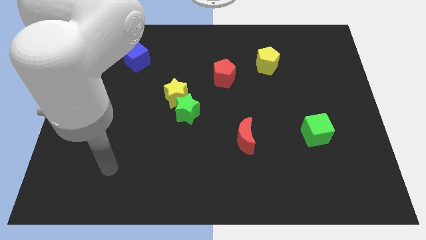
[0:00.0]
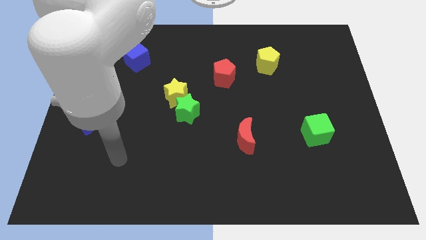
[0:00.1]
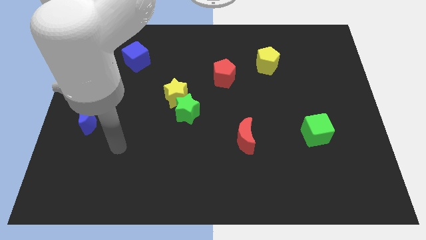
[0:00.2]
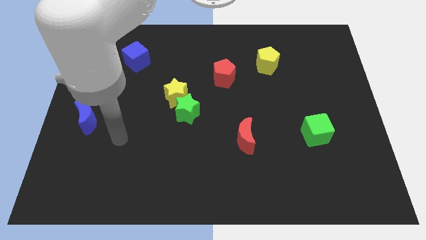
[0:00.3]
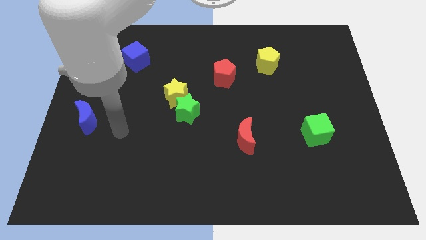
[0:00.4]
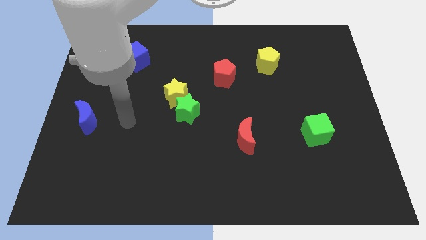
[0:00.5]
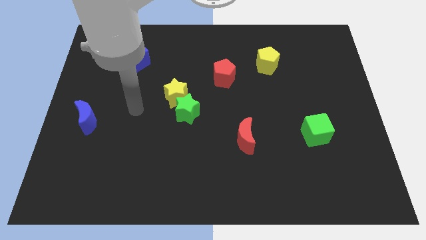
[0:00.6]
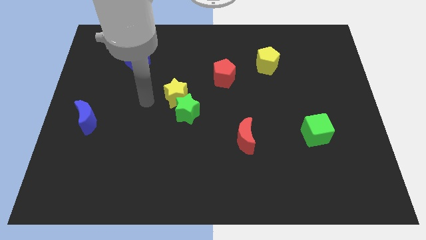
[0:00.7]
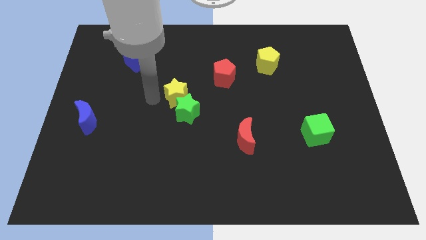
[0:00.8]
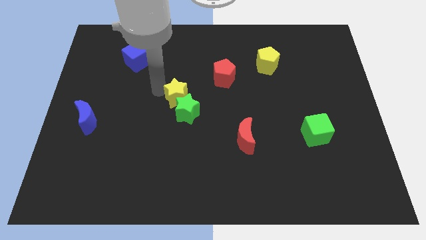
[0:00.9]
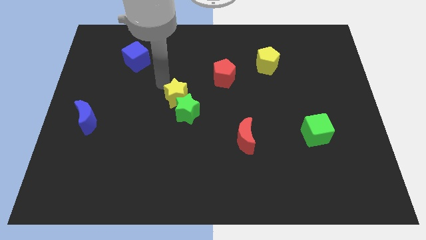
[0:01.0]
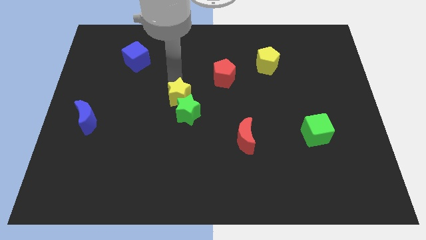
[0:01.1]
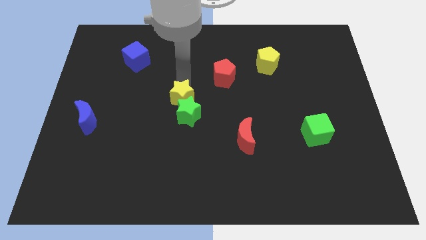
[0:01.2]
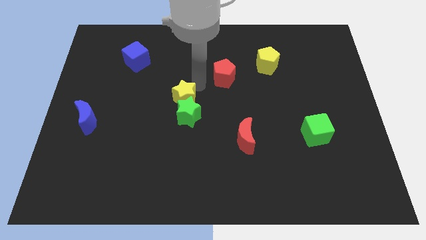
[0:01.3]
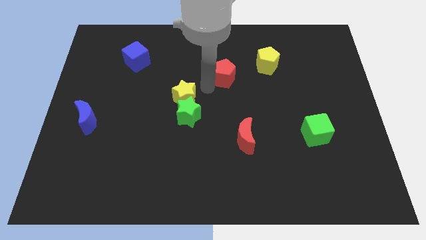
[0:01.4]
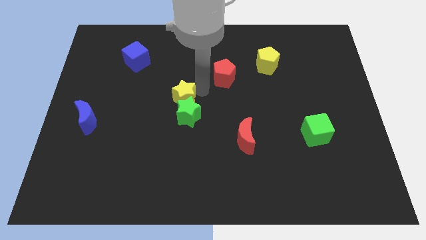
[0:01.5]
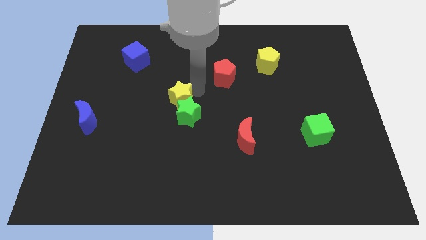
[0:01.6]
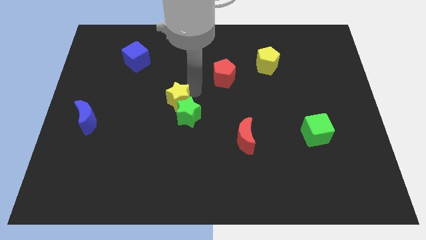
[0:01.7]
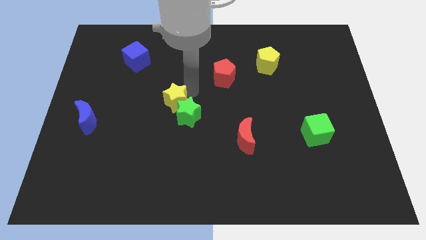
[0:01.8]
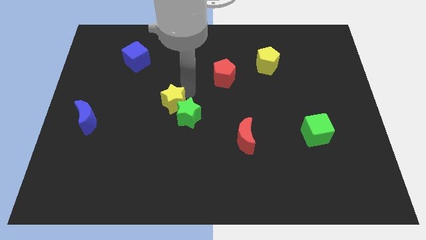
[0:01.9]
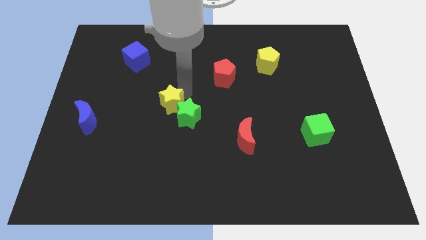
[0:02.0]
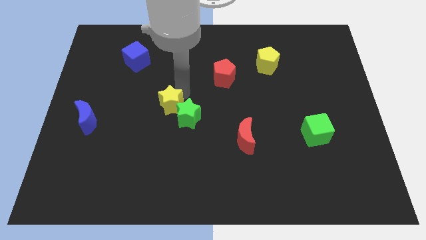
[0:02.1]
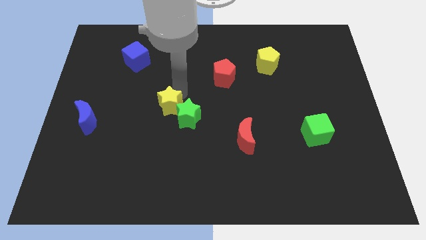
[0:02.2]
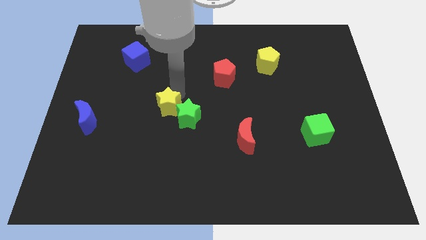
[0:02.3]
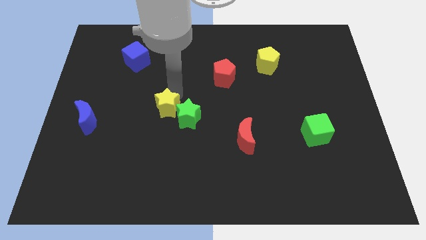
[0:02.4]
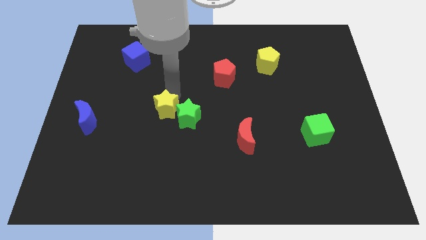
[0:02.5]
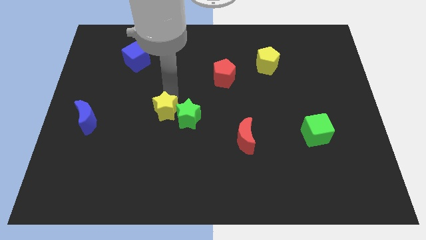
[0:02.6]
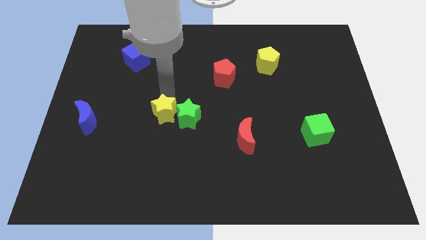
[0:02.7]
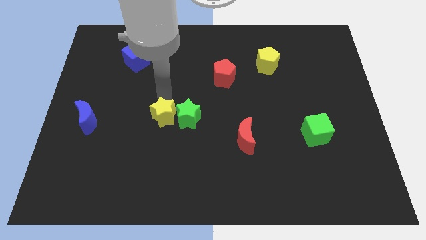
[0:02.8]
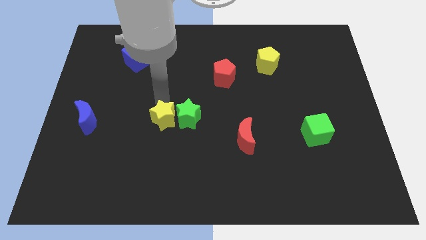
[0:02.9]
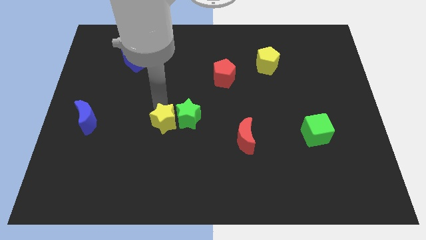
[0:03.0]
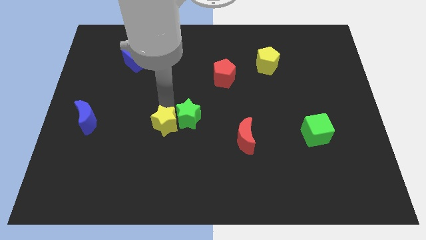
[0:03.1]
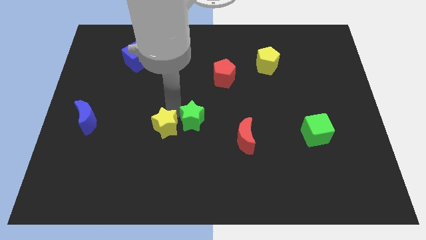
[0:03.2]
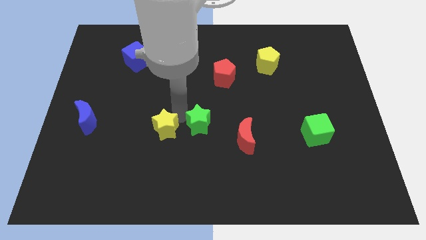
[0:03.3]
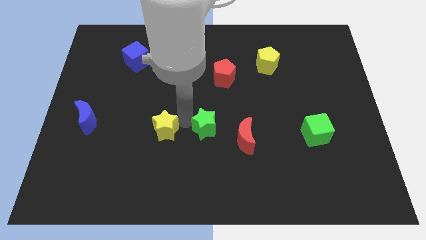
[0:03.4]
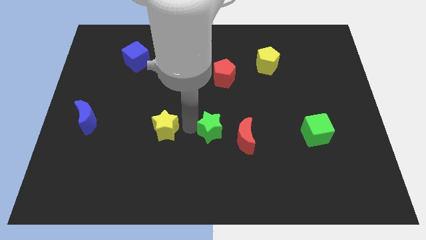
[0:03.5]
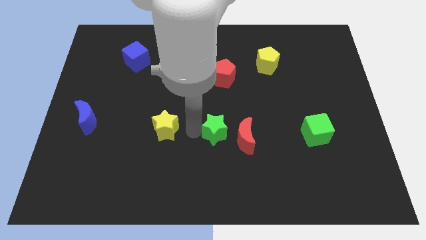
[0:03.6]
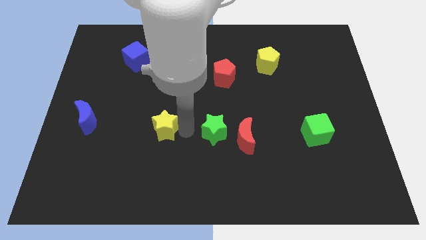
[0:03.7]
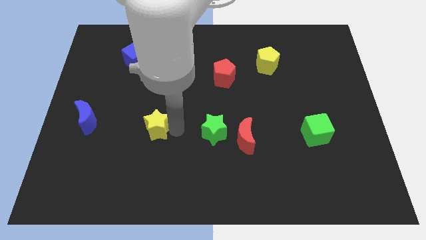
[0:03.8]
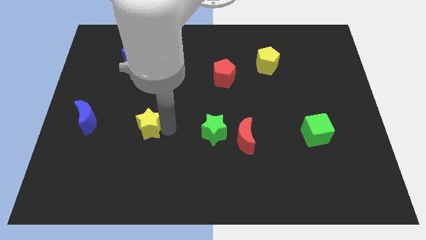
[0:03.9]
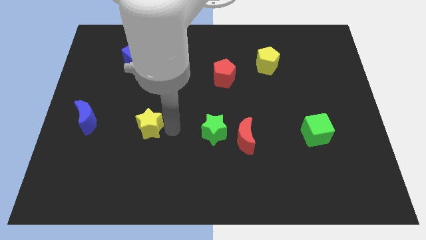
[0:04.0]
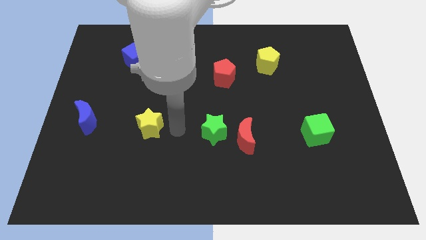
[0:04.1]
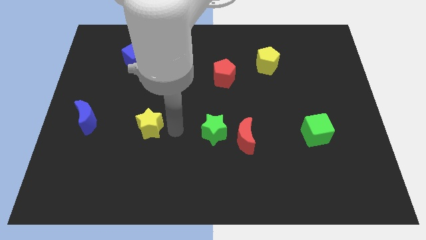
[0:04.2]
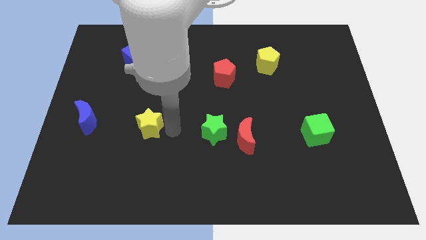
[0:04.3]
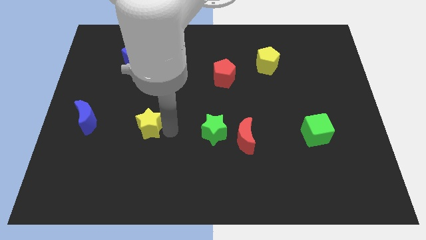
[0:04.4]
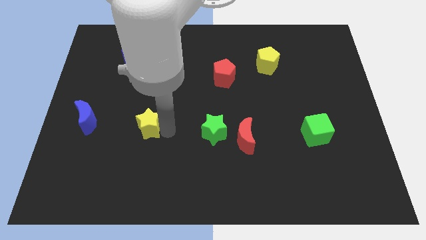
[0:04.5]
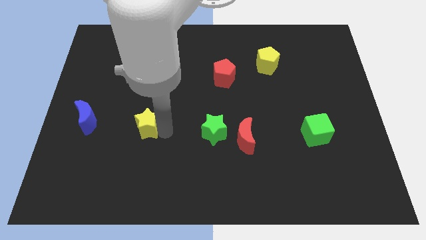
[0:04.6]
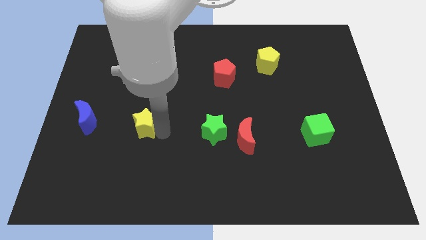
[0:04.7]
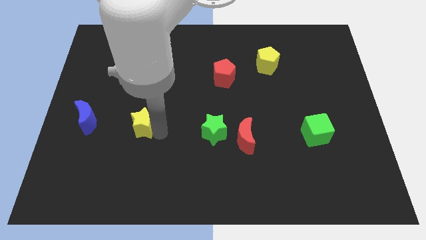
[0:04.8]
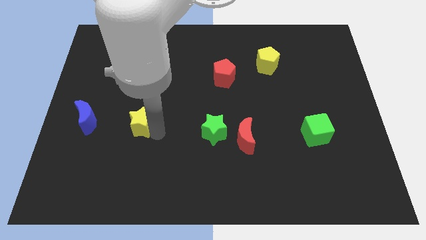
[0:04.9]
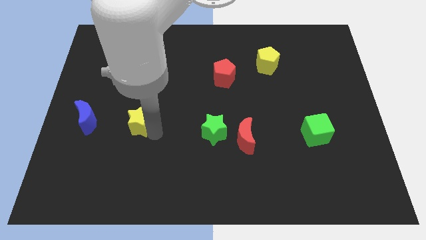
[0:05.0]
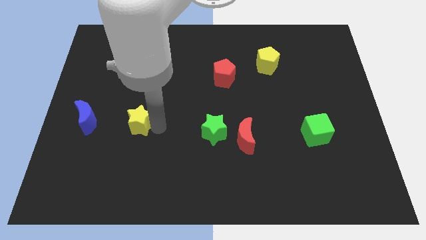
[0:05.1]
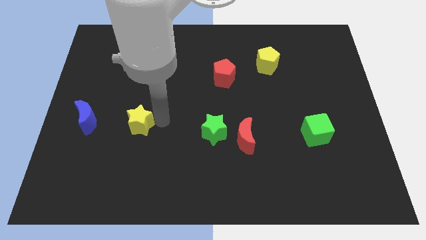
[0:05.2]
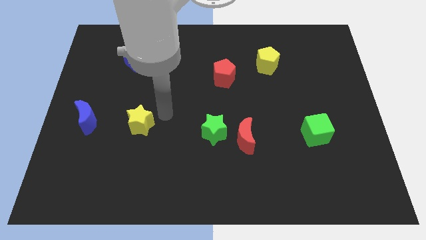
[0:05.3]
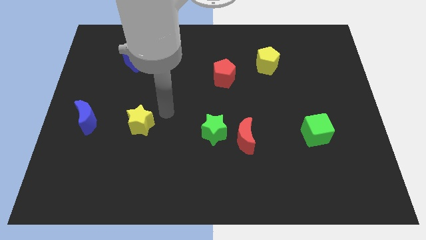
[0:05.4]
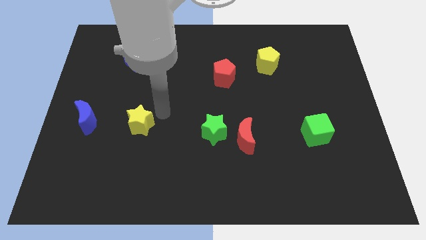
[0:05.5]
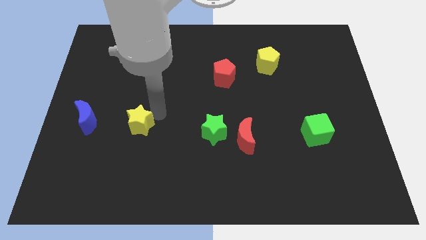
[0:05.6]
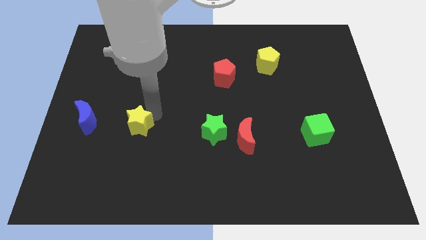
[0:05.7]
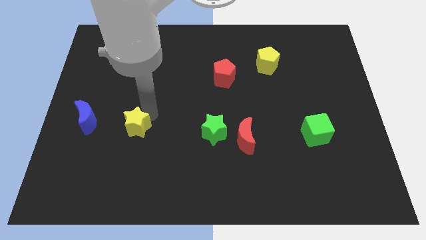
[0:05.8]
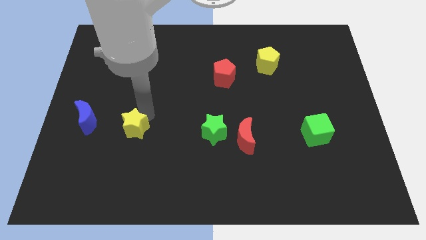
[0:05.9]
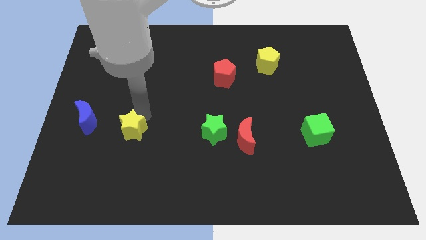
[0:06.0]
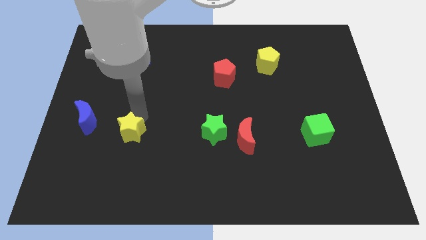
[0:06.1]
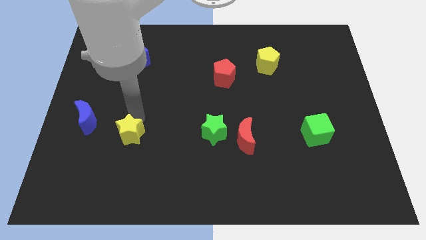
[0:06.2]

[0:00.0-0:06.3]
put the yellow star to the bottom right of the blue moon

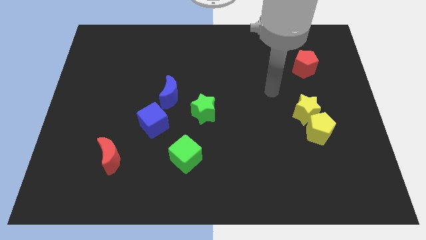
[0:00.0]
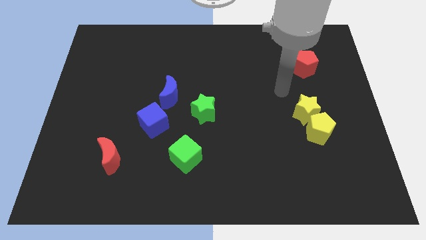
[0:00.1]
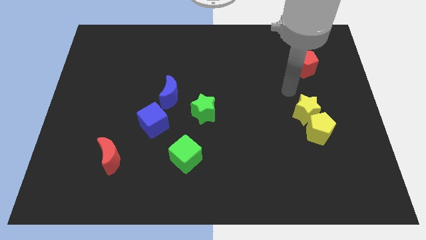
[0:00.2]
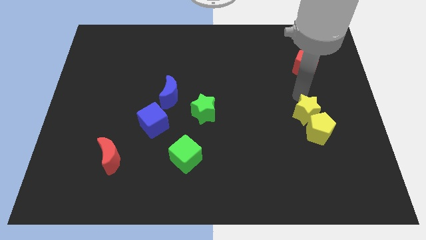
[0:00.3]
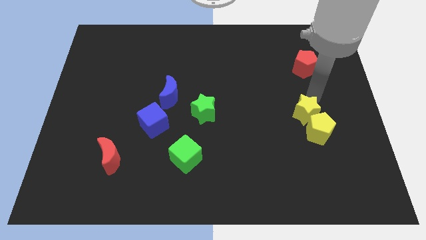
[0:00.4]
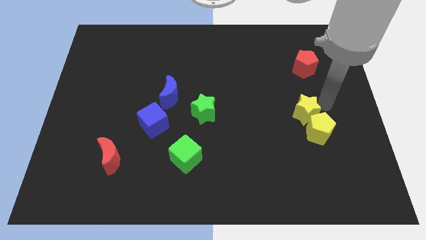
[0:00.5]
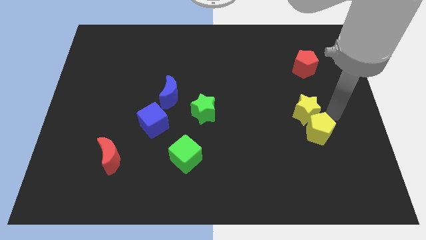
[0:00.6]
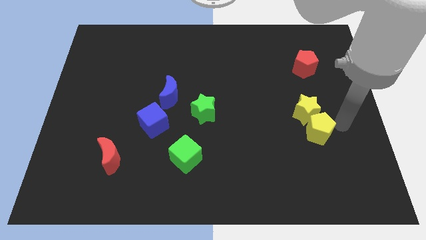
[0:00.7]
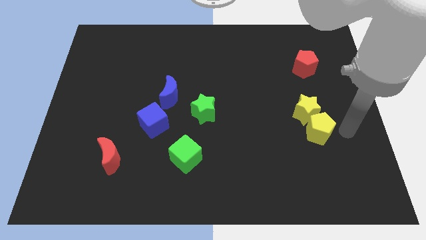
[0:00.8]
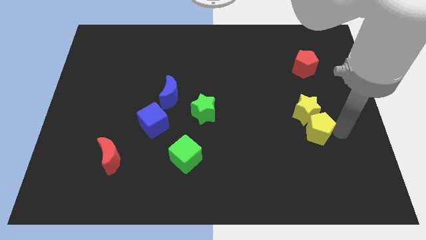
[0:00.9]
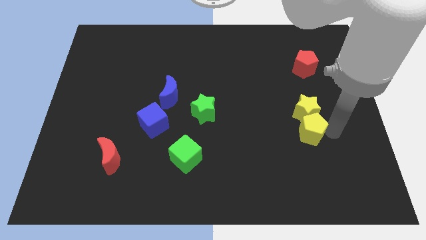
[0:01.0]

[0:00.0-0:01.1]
put the yellow pentagon diagonally down and to the left of the yellow star

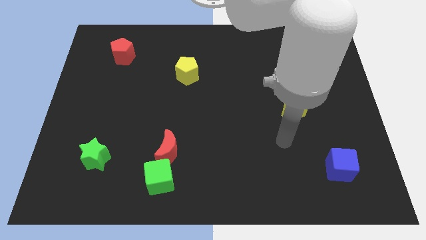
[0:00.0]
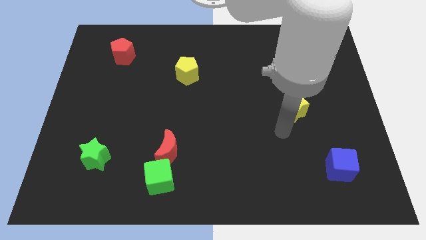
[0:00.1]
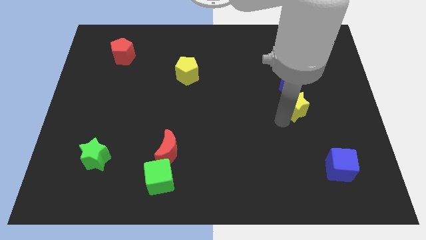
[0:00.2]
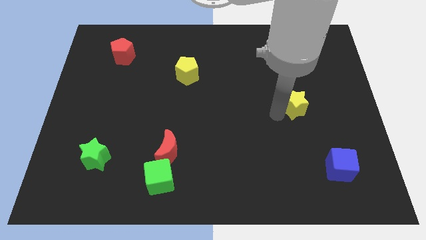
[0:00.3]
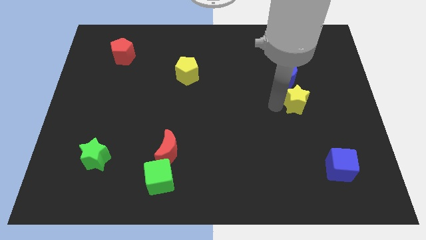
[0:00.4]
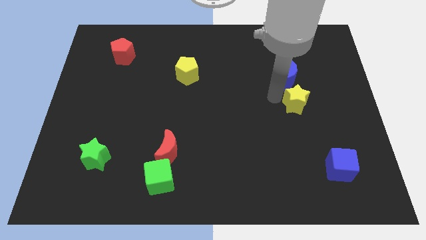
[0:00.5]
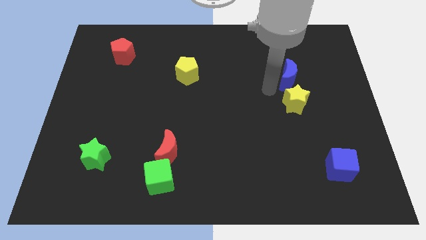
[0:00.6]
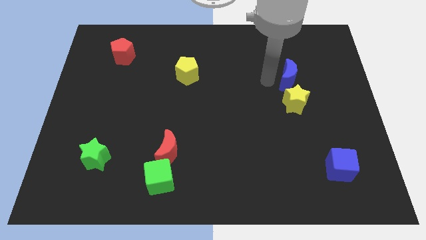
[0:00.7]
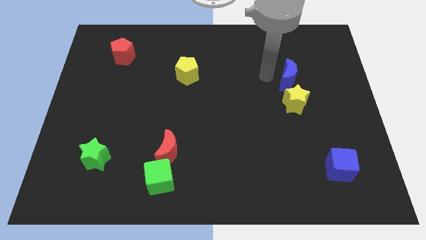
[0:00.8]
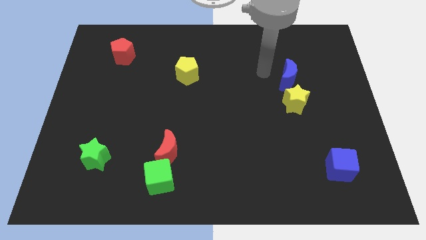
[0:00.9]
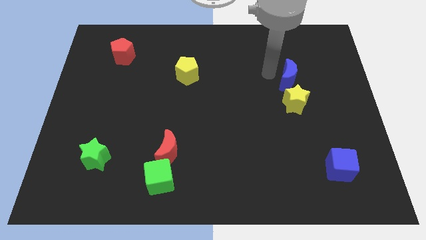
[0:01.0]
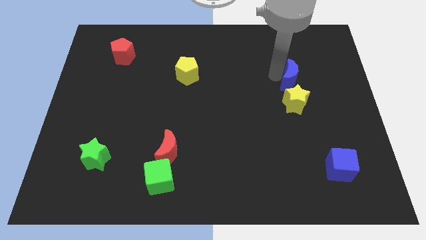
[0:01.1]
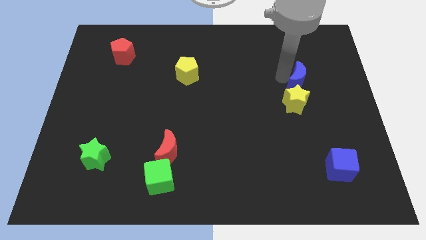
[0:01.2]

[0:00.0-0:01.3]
move the blue moon diagonally up and to the right of the yellow star
